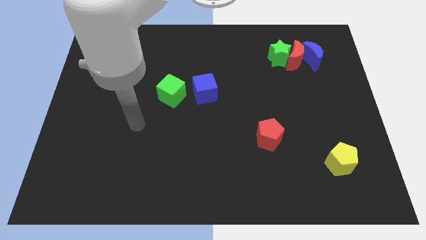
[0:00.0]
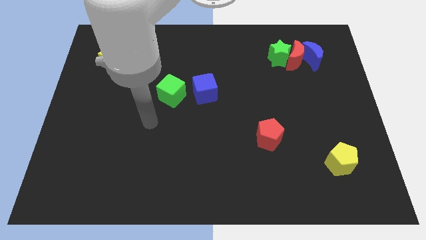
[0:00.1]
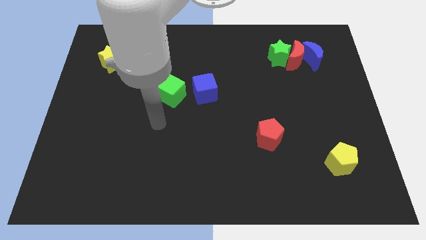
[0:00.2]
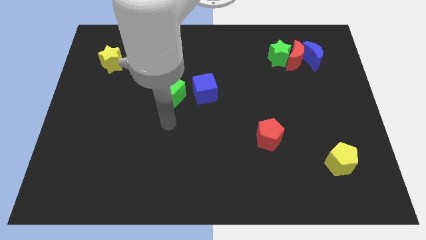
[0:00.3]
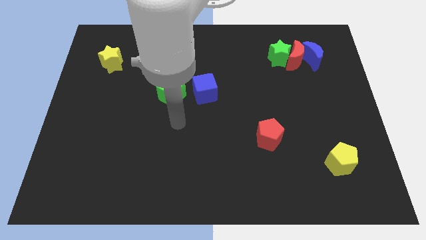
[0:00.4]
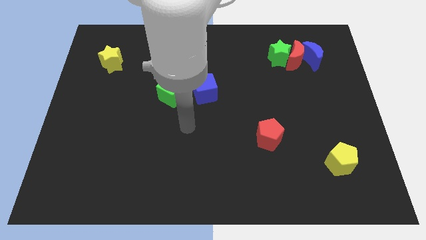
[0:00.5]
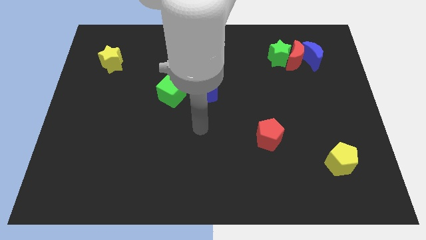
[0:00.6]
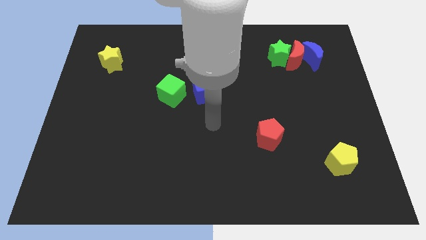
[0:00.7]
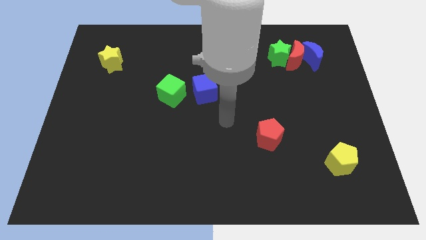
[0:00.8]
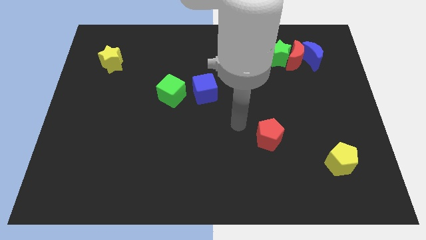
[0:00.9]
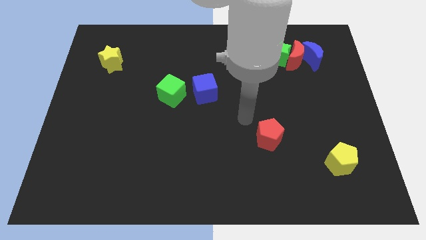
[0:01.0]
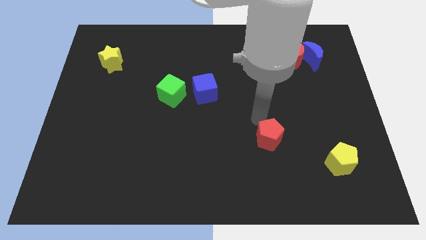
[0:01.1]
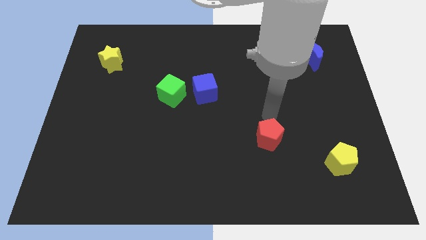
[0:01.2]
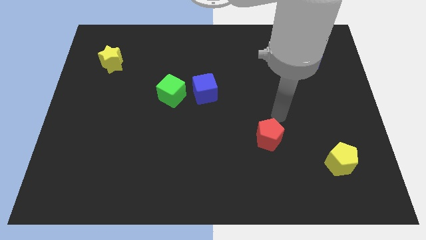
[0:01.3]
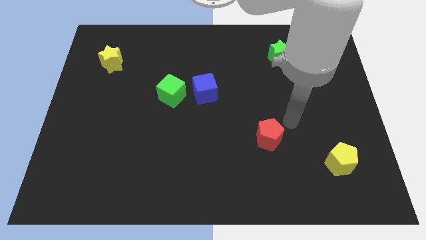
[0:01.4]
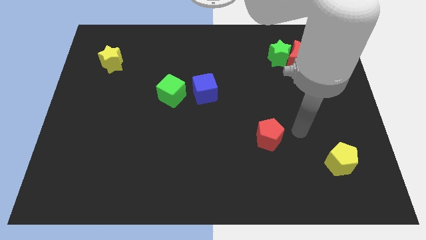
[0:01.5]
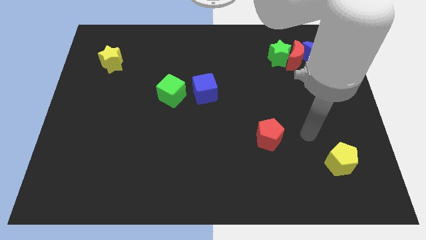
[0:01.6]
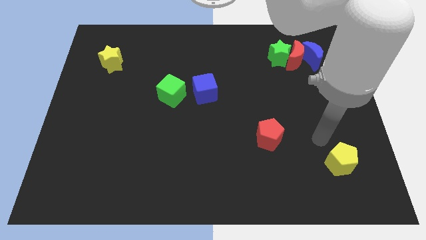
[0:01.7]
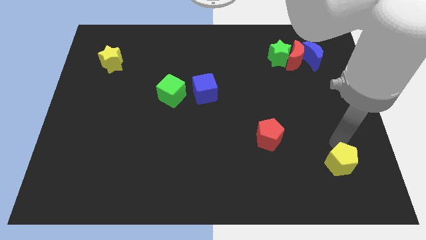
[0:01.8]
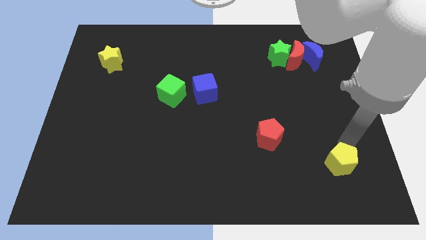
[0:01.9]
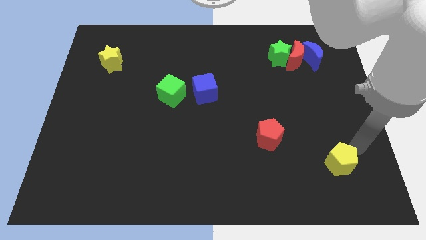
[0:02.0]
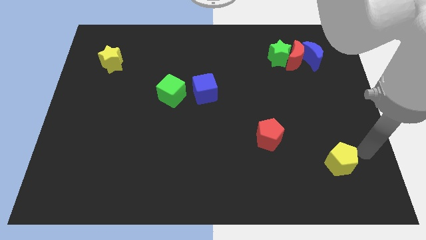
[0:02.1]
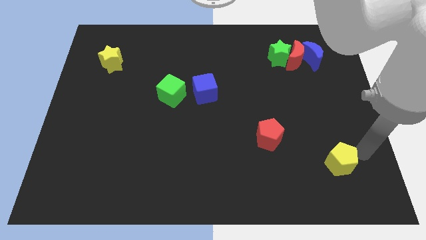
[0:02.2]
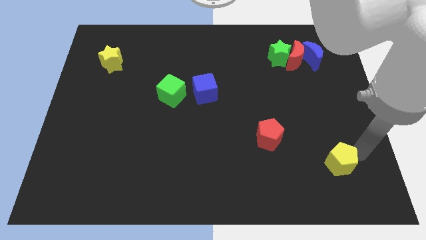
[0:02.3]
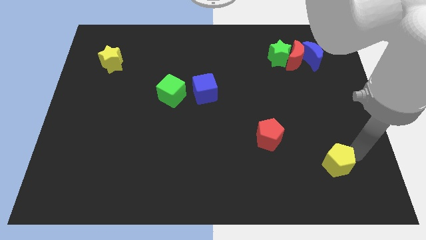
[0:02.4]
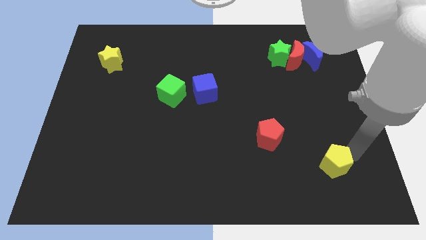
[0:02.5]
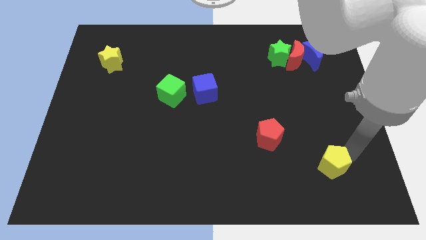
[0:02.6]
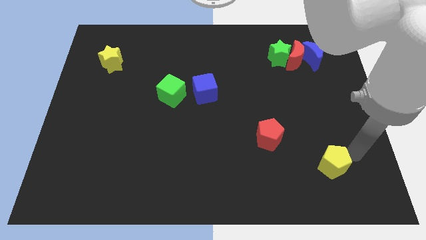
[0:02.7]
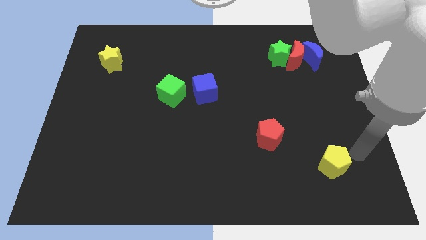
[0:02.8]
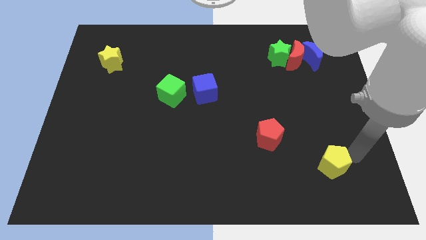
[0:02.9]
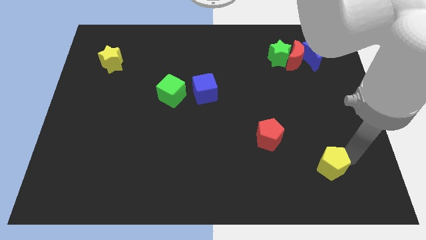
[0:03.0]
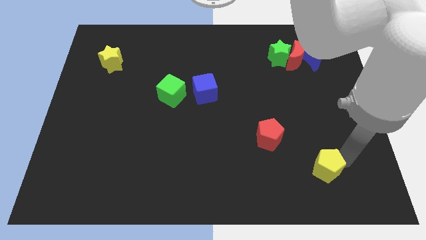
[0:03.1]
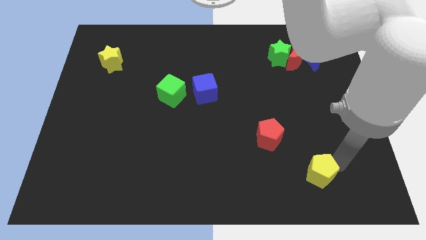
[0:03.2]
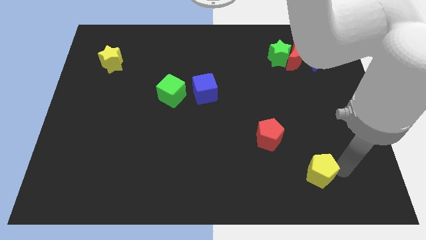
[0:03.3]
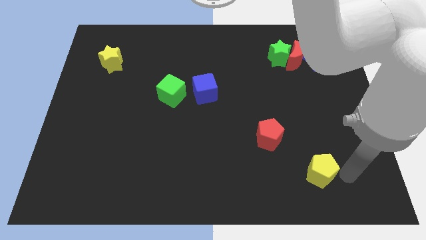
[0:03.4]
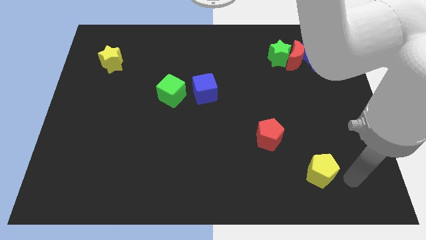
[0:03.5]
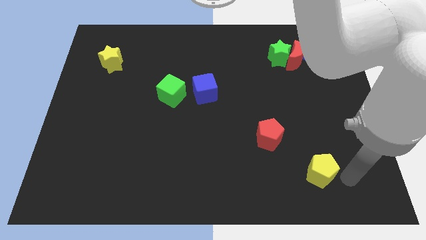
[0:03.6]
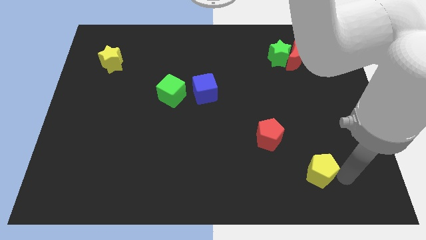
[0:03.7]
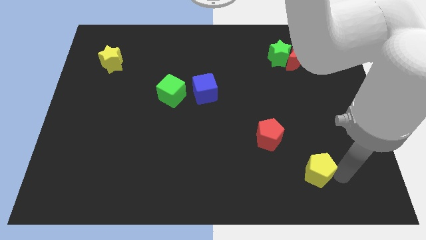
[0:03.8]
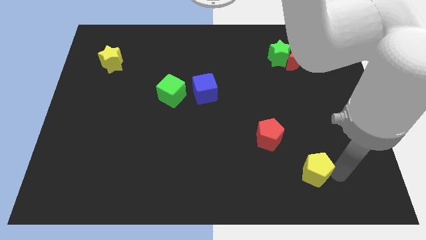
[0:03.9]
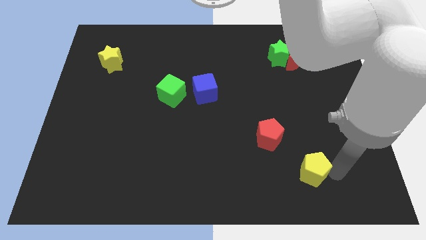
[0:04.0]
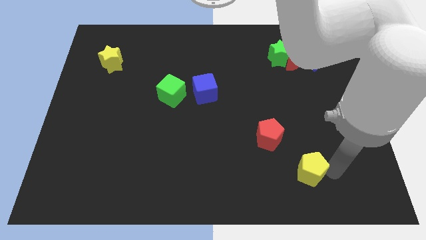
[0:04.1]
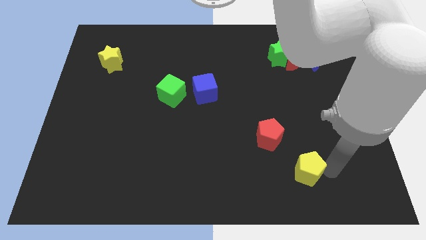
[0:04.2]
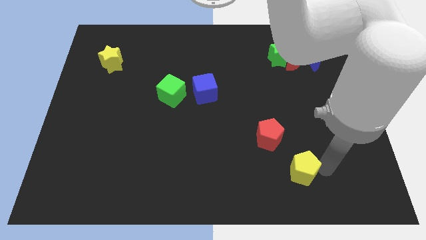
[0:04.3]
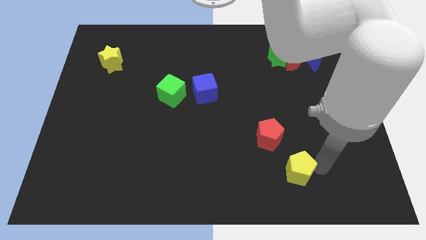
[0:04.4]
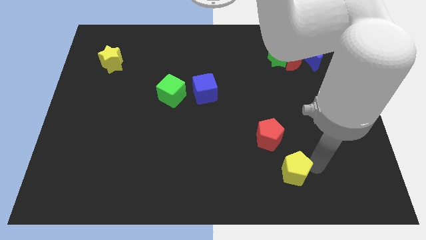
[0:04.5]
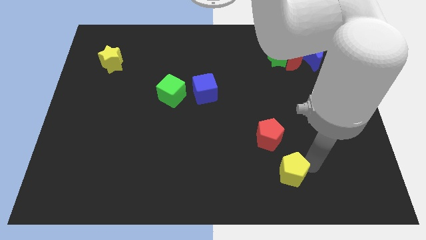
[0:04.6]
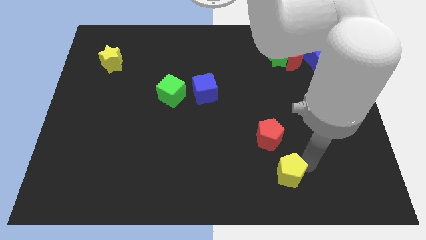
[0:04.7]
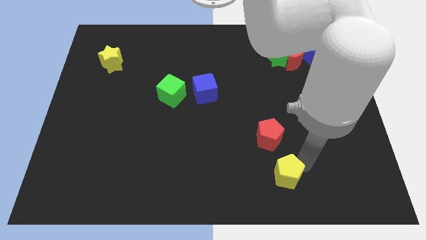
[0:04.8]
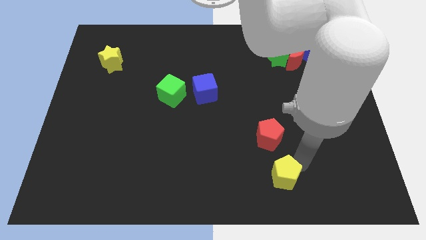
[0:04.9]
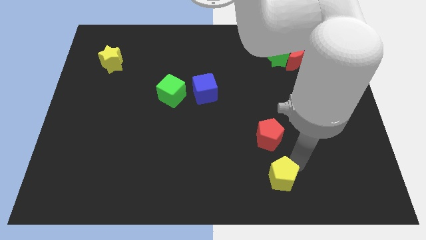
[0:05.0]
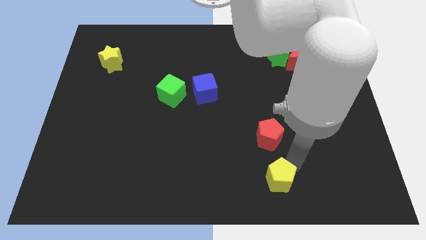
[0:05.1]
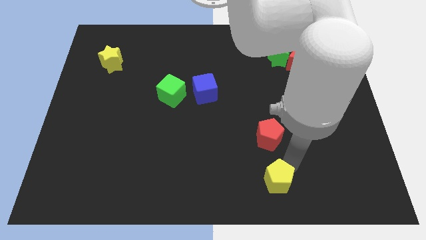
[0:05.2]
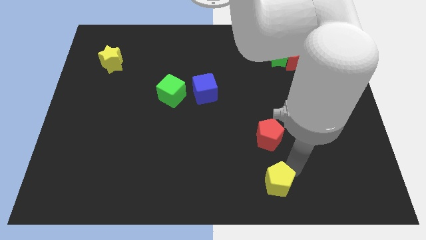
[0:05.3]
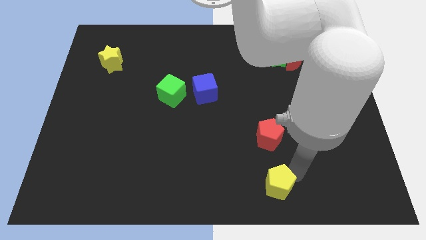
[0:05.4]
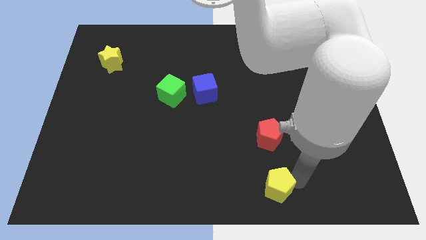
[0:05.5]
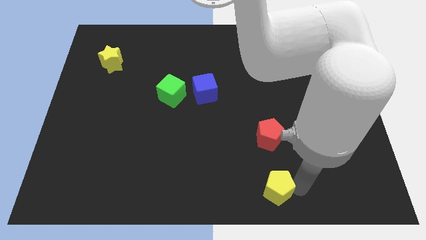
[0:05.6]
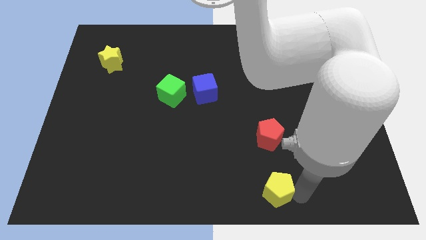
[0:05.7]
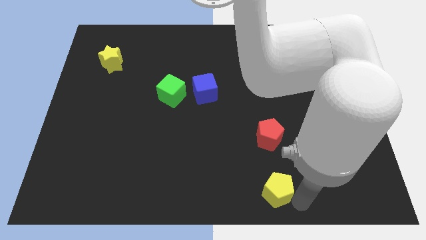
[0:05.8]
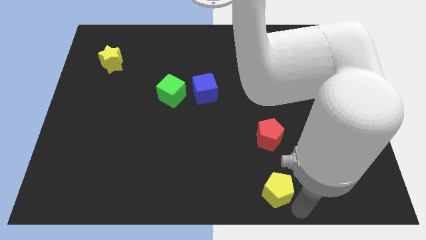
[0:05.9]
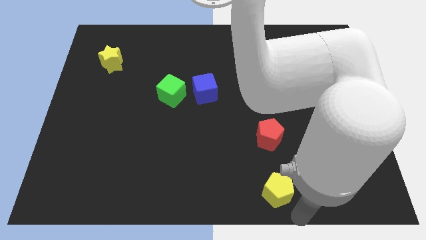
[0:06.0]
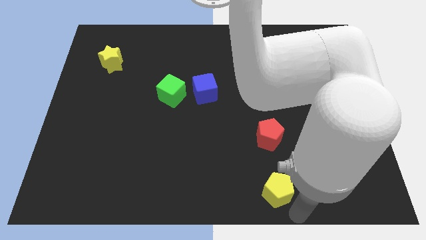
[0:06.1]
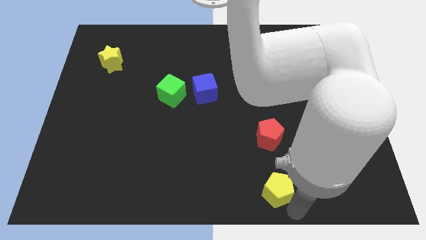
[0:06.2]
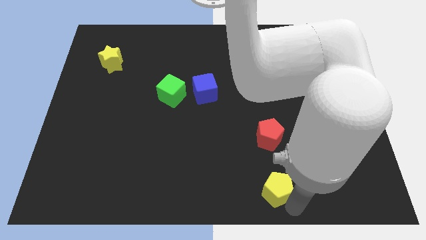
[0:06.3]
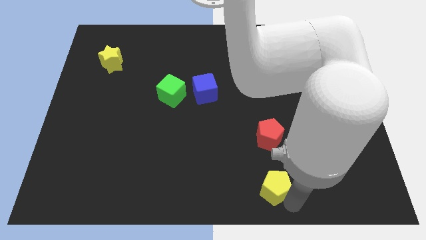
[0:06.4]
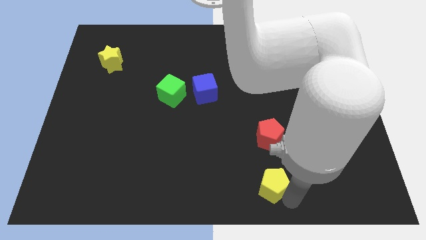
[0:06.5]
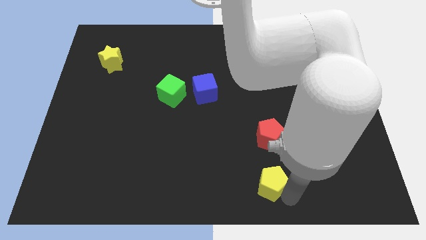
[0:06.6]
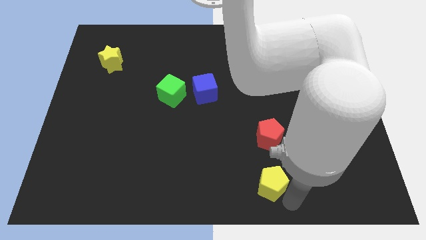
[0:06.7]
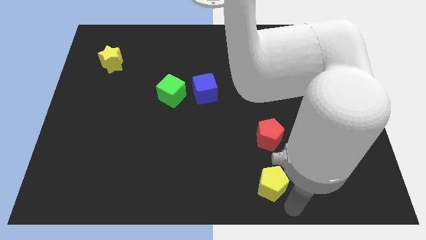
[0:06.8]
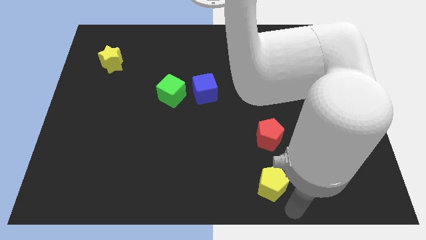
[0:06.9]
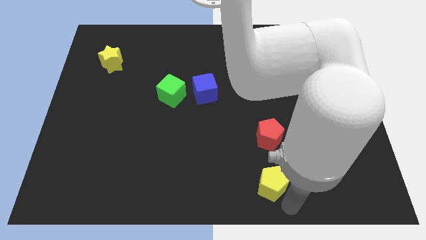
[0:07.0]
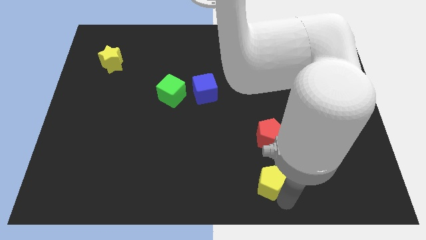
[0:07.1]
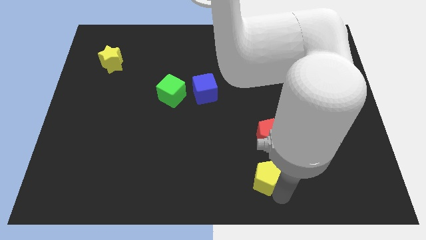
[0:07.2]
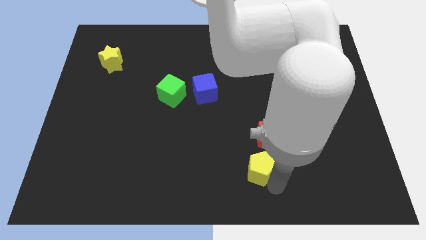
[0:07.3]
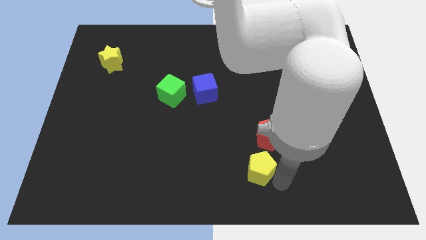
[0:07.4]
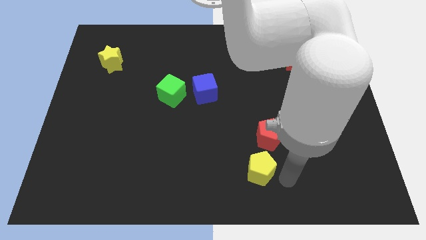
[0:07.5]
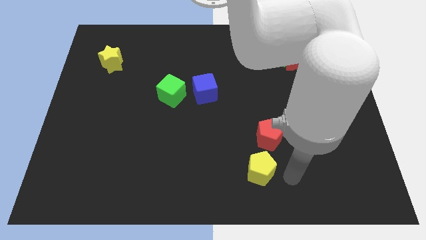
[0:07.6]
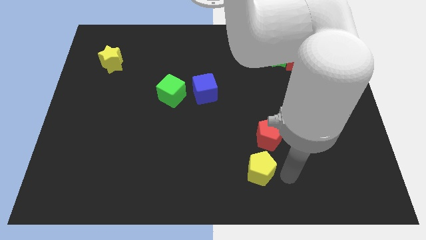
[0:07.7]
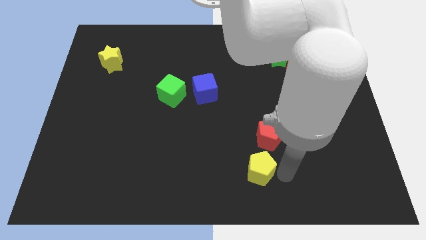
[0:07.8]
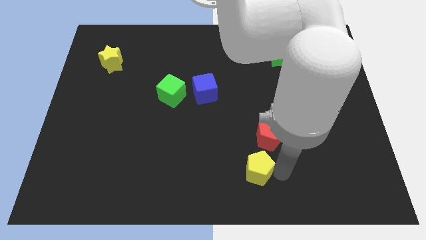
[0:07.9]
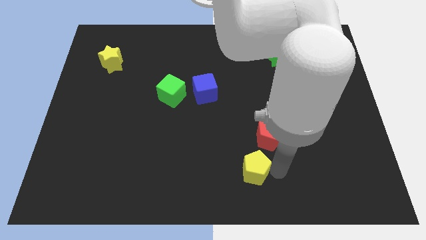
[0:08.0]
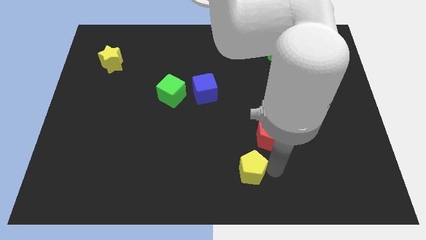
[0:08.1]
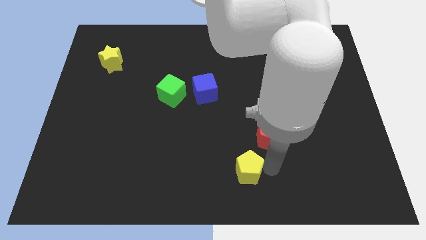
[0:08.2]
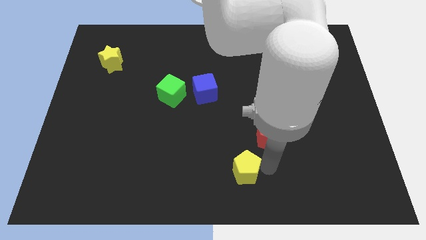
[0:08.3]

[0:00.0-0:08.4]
push the yellow pentagon to the left
